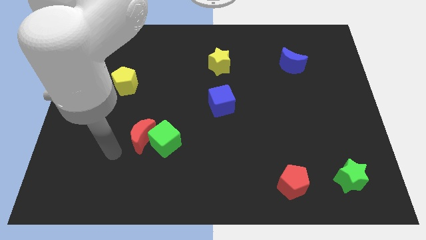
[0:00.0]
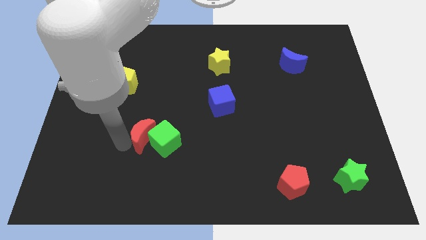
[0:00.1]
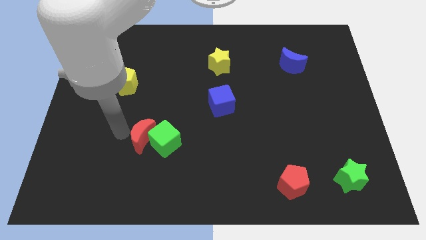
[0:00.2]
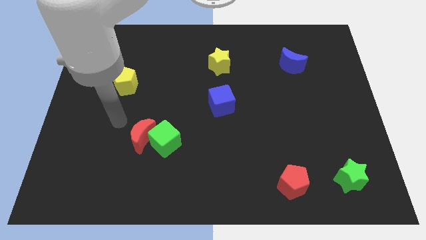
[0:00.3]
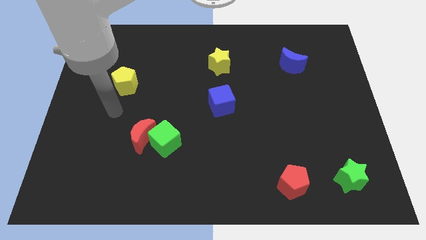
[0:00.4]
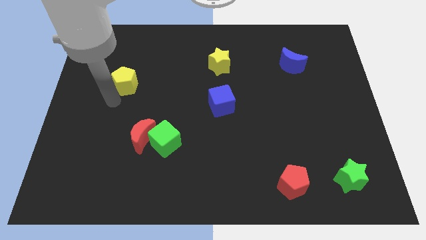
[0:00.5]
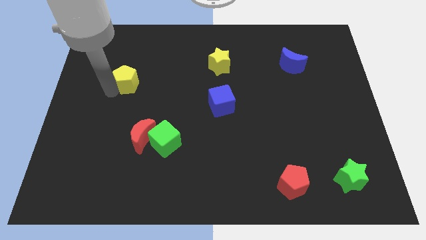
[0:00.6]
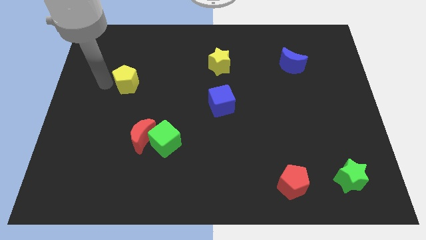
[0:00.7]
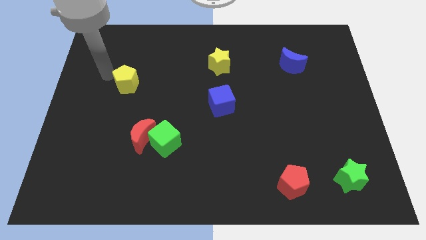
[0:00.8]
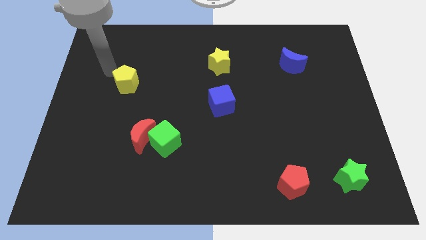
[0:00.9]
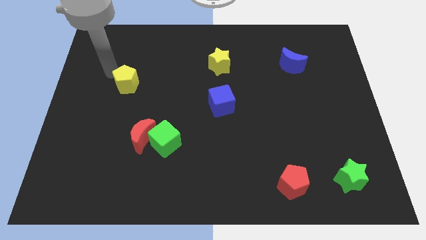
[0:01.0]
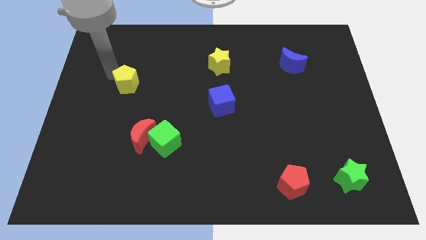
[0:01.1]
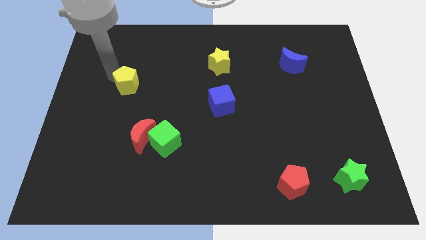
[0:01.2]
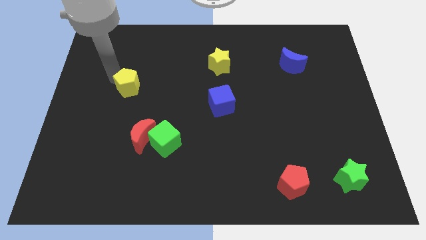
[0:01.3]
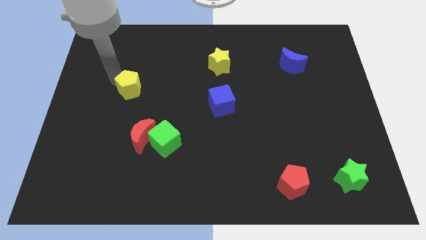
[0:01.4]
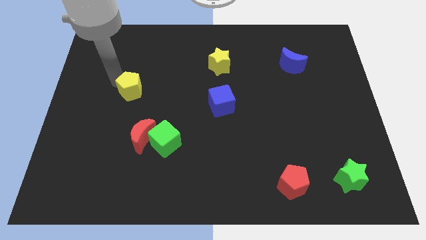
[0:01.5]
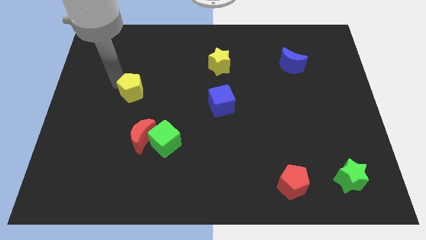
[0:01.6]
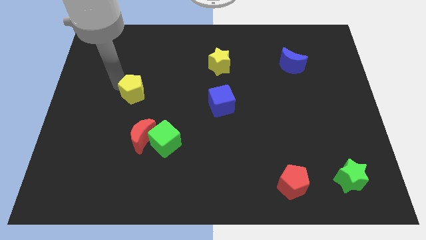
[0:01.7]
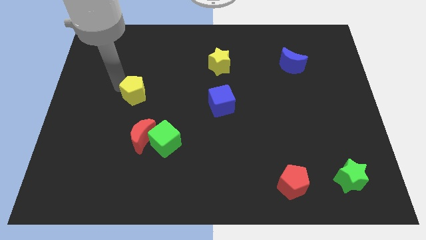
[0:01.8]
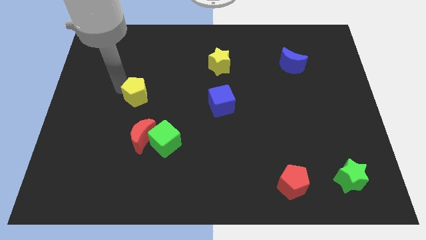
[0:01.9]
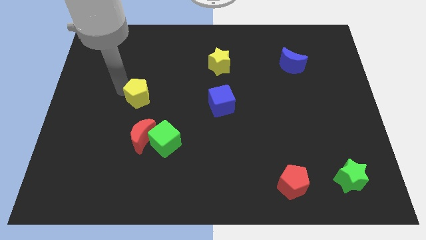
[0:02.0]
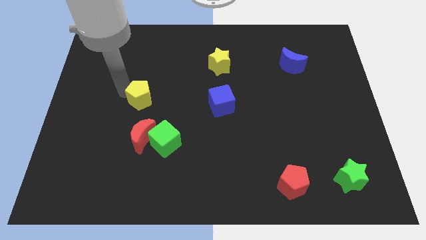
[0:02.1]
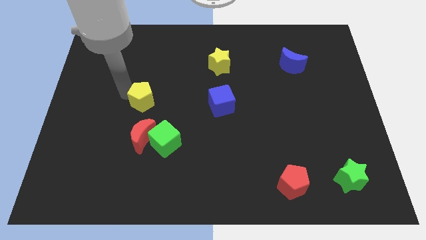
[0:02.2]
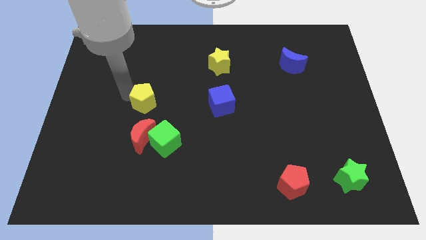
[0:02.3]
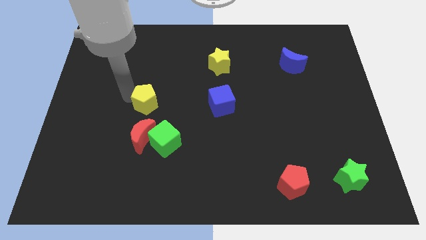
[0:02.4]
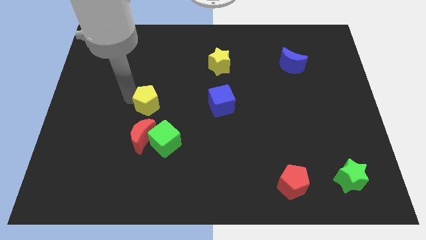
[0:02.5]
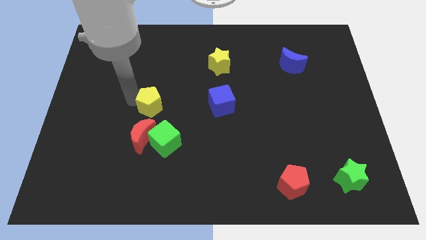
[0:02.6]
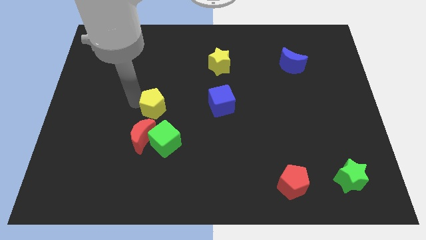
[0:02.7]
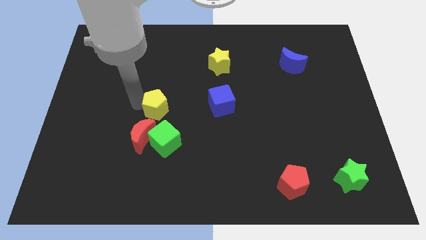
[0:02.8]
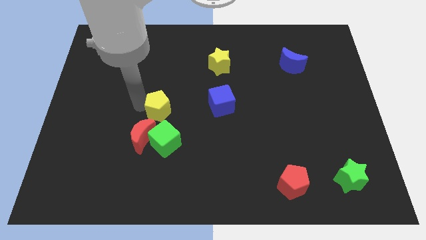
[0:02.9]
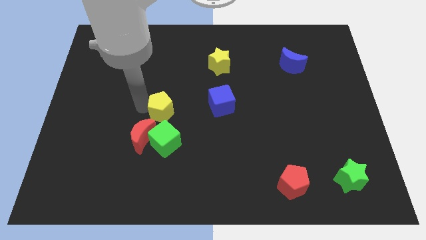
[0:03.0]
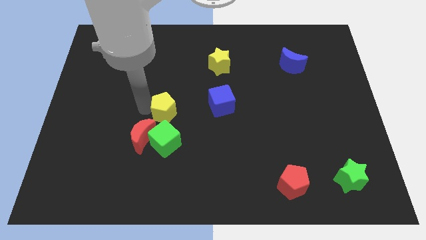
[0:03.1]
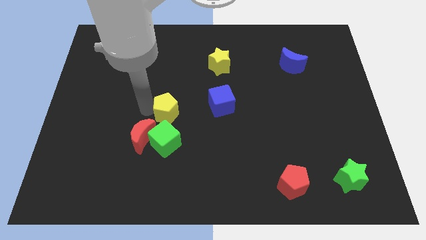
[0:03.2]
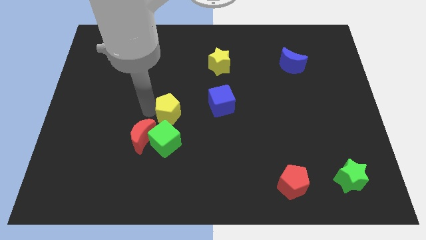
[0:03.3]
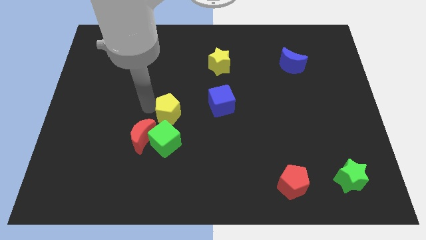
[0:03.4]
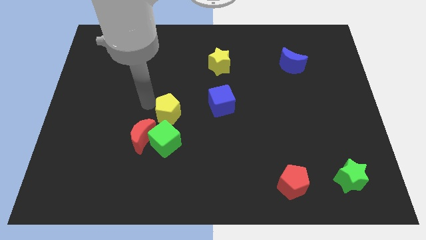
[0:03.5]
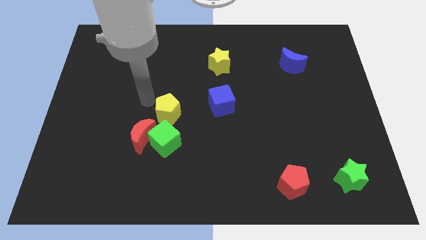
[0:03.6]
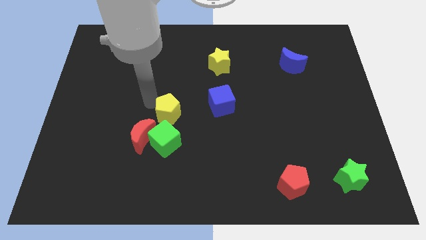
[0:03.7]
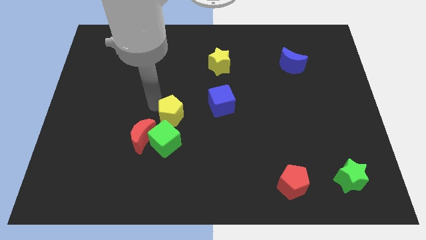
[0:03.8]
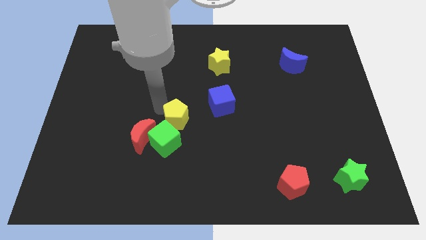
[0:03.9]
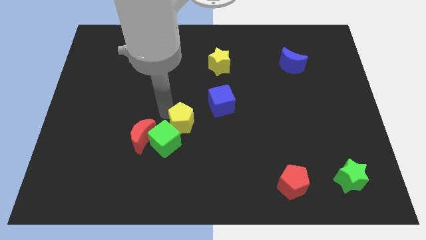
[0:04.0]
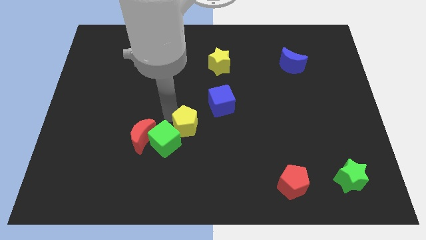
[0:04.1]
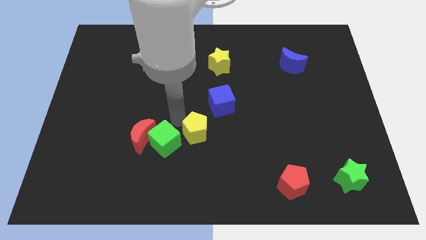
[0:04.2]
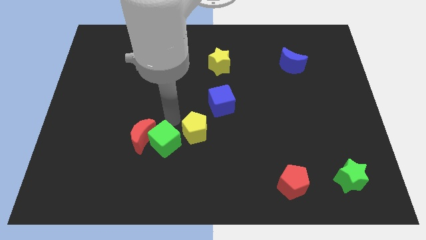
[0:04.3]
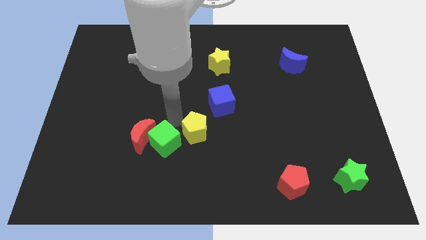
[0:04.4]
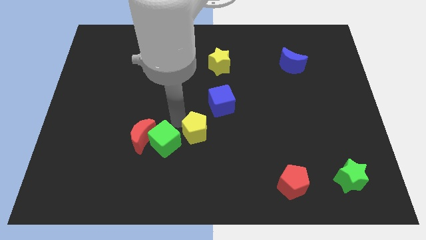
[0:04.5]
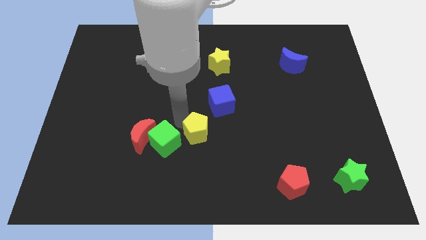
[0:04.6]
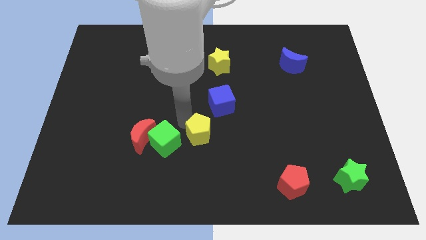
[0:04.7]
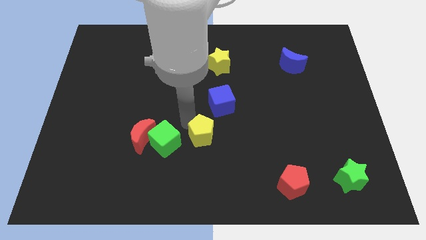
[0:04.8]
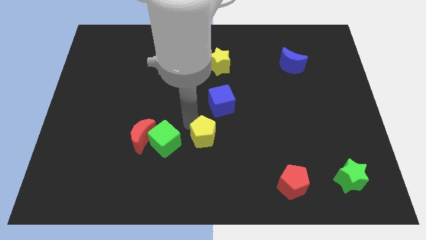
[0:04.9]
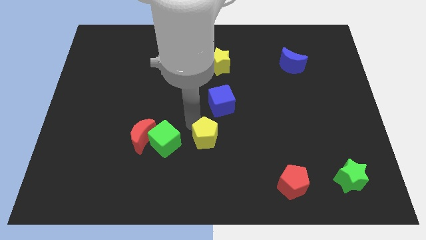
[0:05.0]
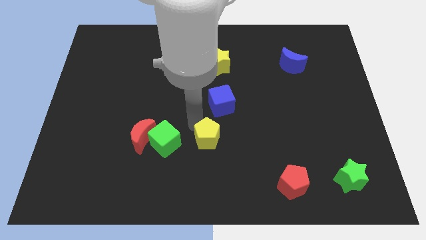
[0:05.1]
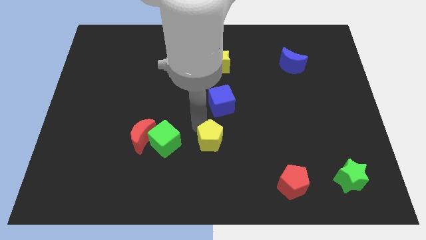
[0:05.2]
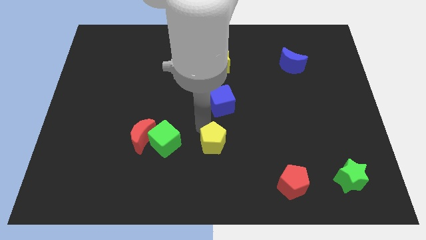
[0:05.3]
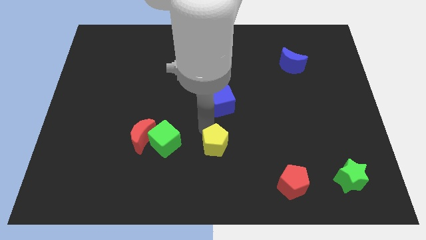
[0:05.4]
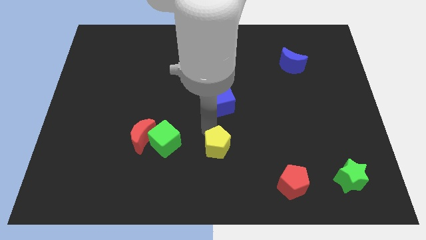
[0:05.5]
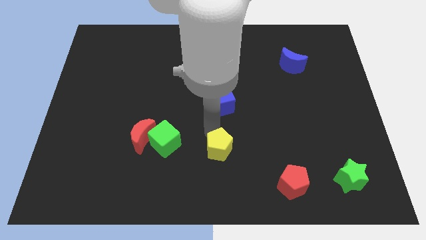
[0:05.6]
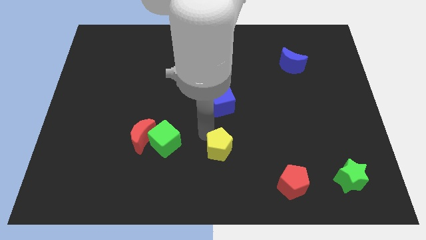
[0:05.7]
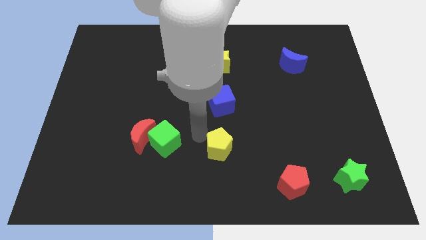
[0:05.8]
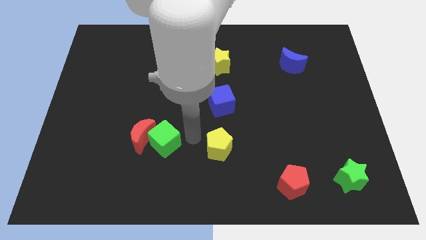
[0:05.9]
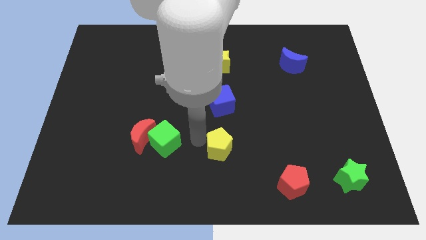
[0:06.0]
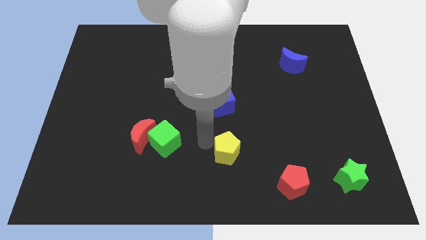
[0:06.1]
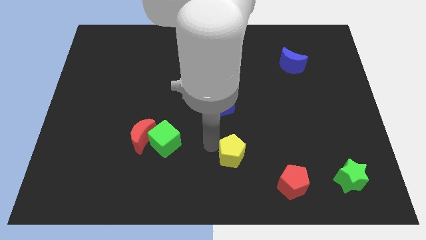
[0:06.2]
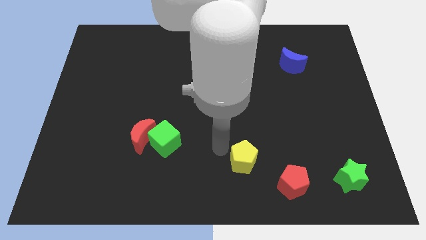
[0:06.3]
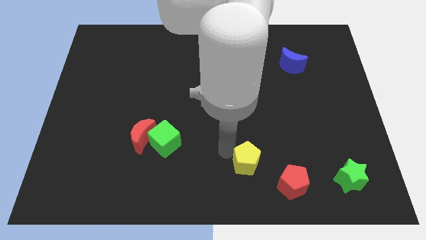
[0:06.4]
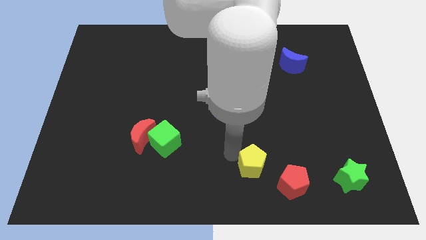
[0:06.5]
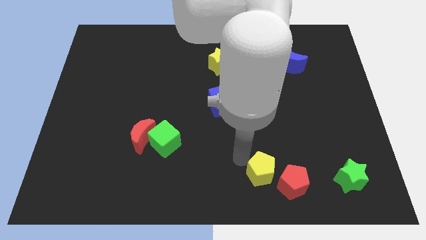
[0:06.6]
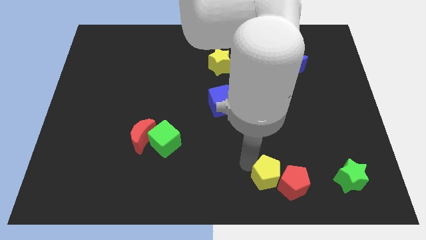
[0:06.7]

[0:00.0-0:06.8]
move the yellow pentagon next to the red pentagon

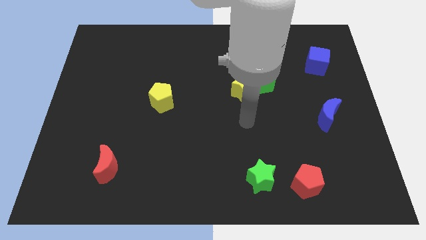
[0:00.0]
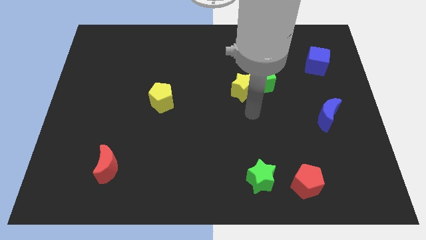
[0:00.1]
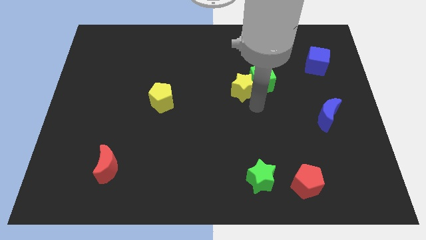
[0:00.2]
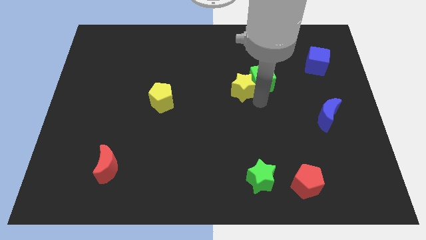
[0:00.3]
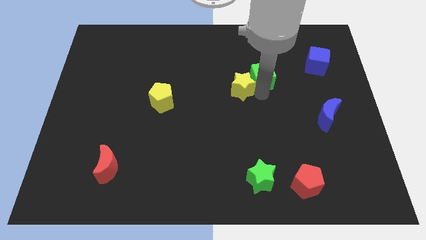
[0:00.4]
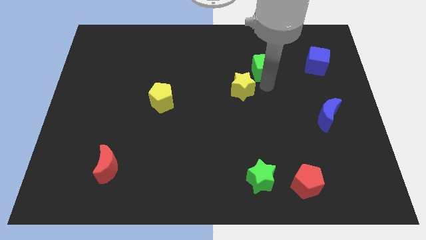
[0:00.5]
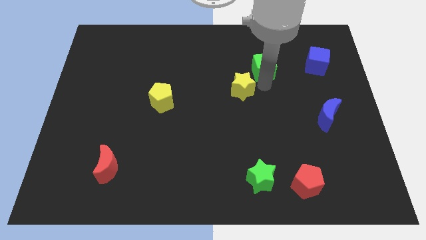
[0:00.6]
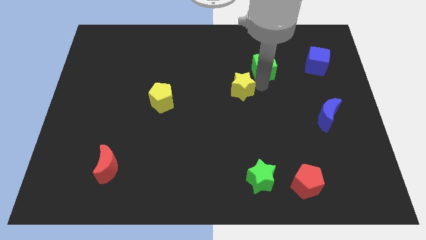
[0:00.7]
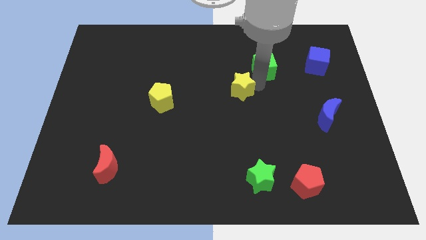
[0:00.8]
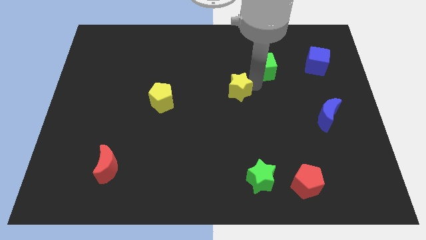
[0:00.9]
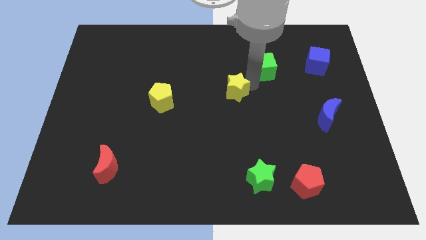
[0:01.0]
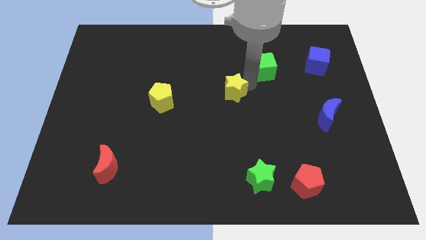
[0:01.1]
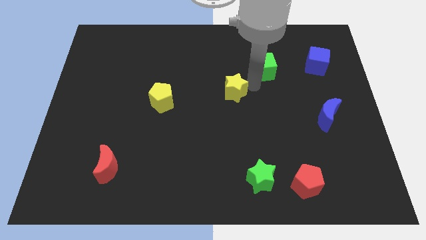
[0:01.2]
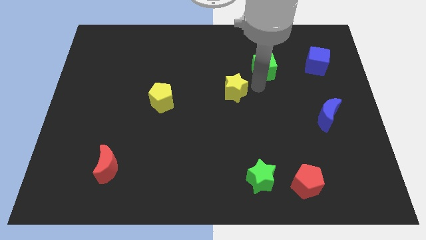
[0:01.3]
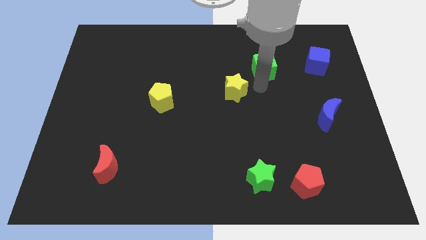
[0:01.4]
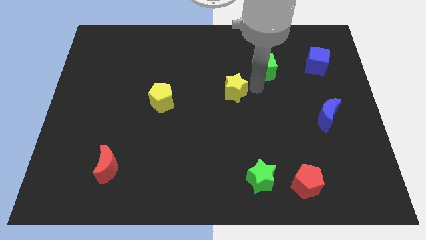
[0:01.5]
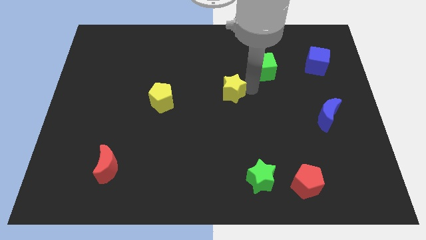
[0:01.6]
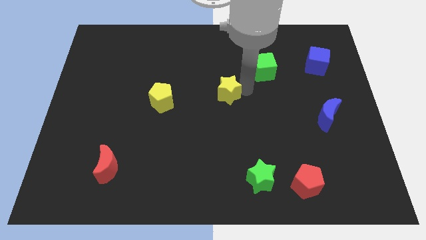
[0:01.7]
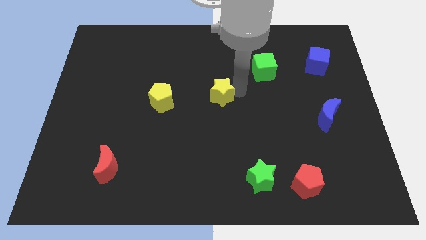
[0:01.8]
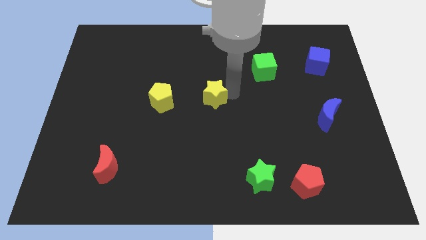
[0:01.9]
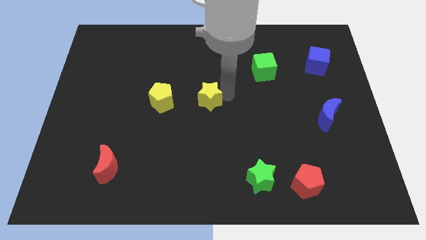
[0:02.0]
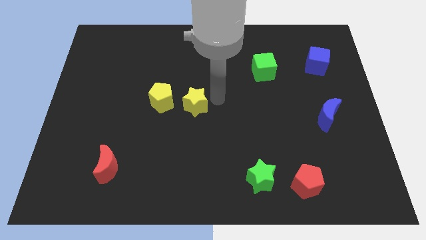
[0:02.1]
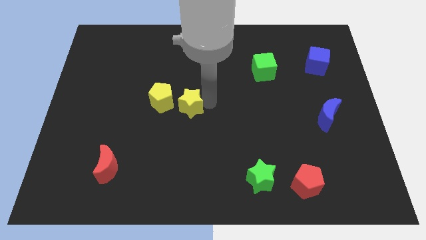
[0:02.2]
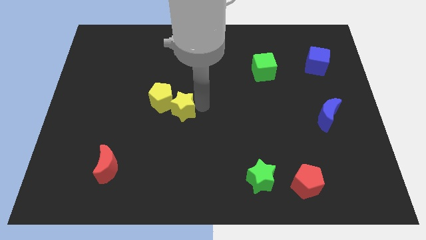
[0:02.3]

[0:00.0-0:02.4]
move the yellow star close to the yellow pentagon
